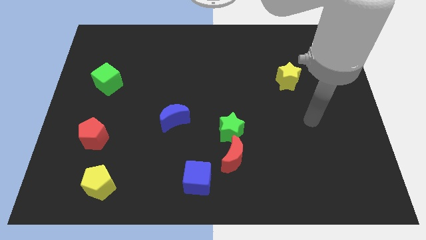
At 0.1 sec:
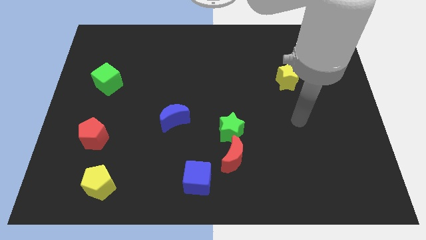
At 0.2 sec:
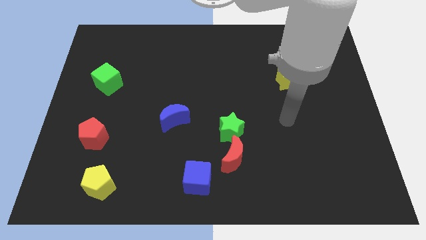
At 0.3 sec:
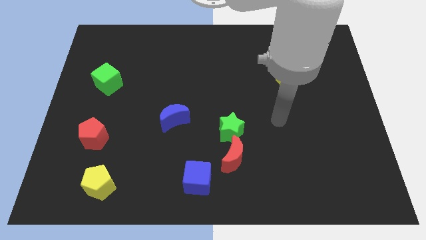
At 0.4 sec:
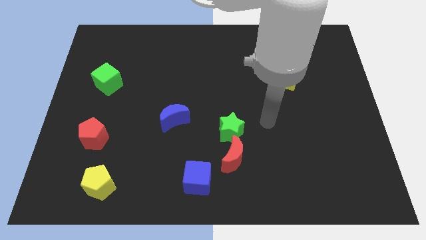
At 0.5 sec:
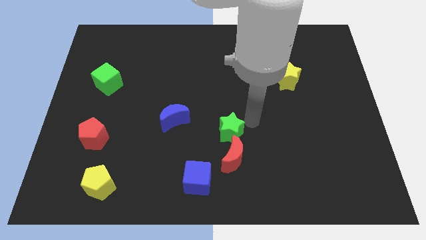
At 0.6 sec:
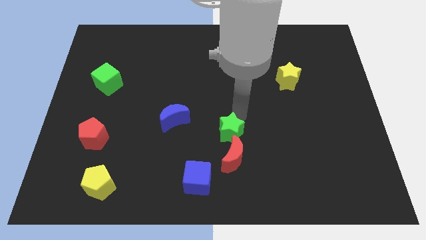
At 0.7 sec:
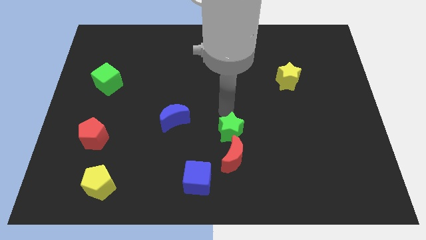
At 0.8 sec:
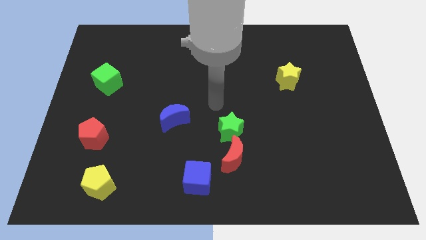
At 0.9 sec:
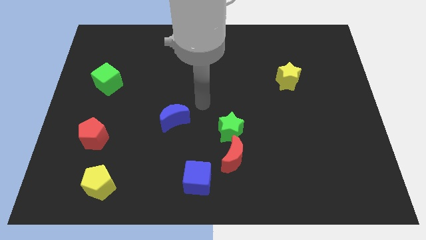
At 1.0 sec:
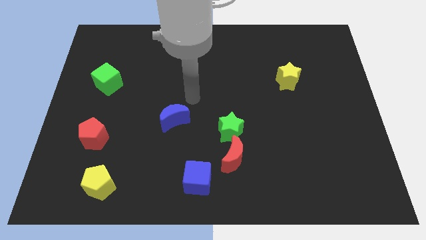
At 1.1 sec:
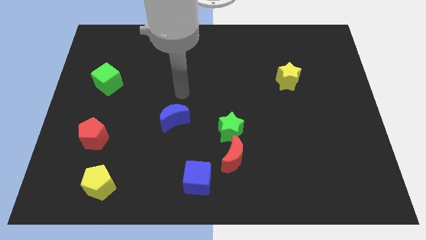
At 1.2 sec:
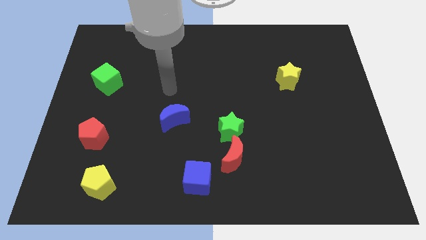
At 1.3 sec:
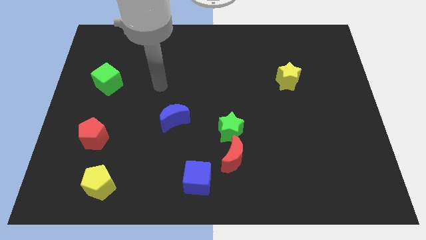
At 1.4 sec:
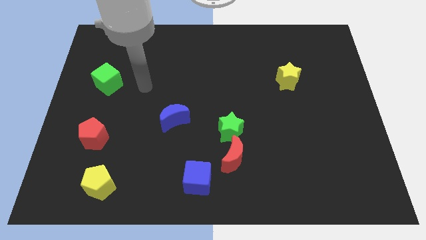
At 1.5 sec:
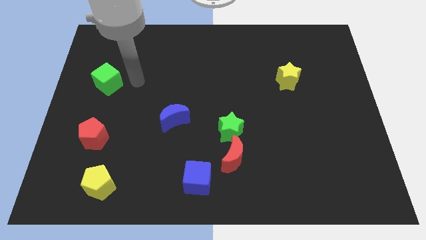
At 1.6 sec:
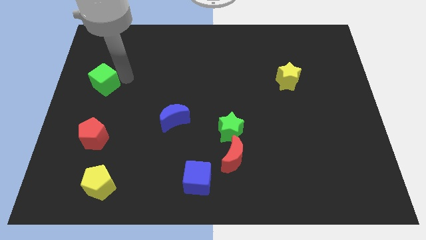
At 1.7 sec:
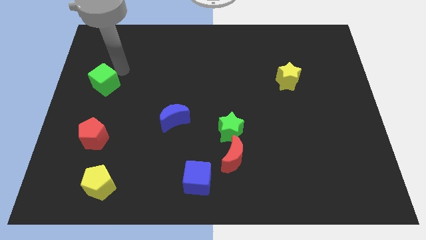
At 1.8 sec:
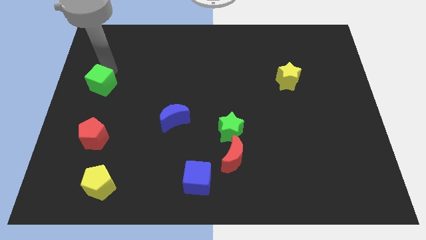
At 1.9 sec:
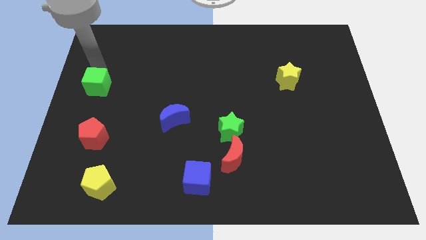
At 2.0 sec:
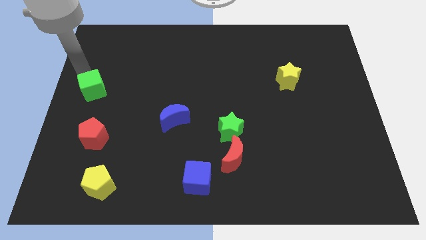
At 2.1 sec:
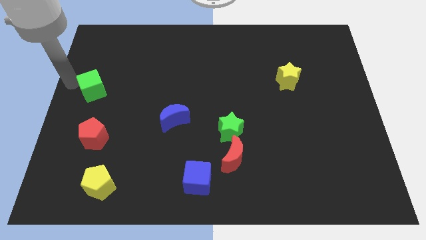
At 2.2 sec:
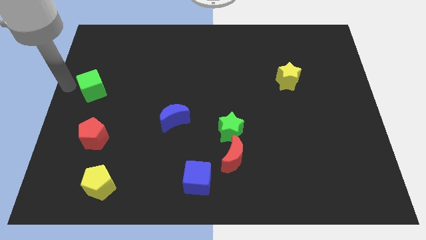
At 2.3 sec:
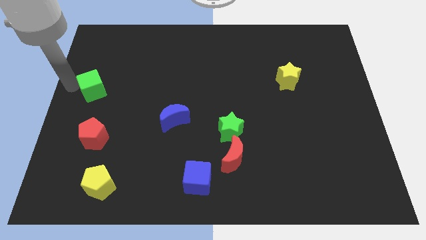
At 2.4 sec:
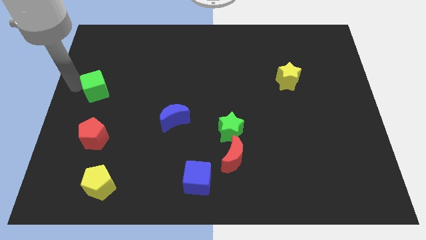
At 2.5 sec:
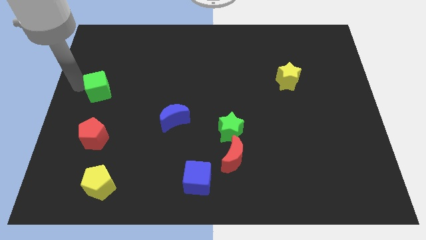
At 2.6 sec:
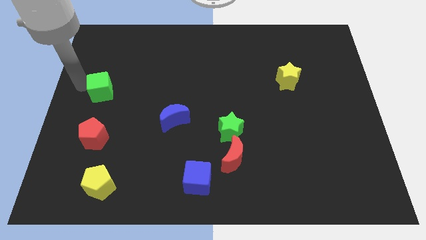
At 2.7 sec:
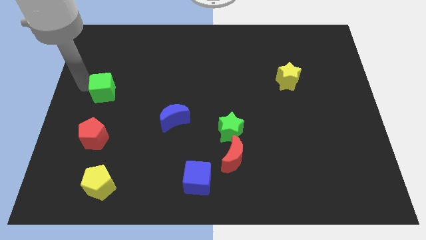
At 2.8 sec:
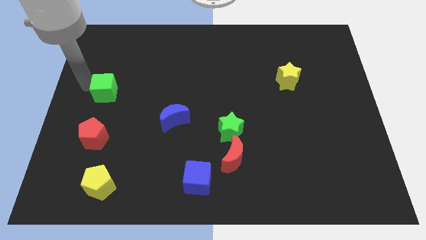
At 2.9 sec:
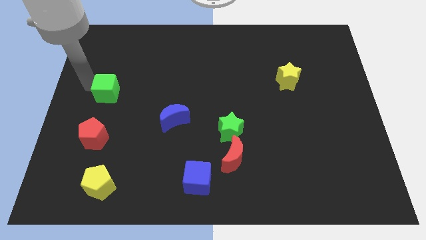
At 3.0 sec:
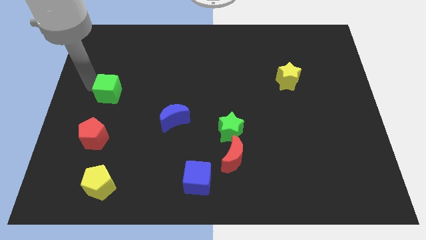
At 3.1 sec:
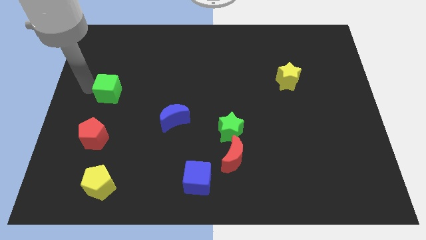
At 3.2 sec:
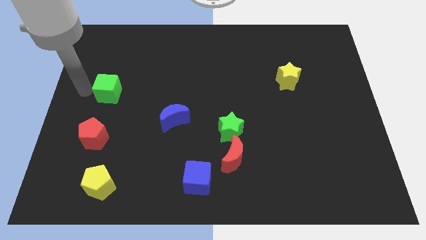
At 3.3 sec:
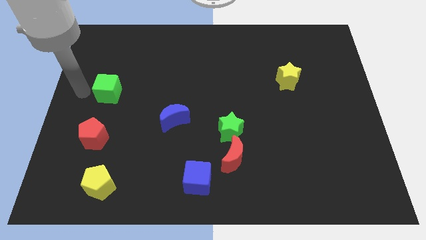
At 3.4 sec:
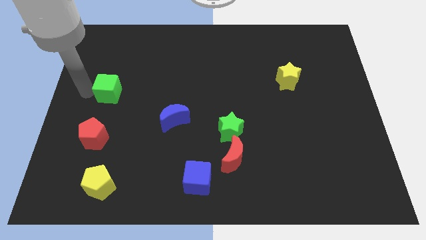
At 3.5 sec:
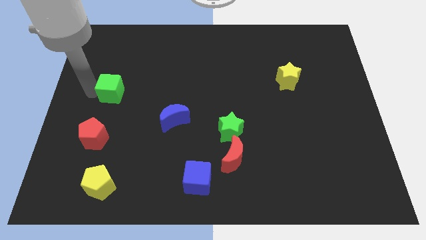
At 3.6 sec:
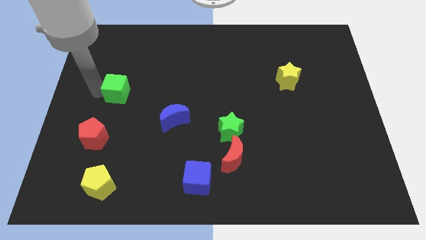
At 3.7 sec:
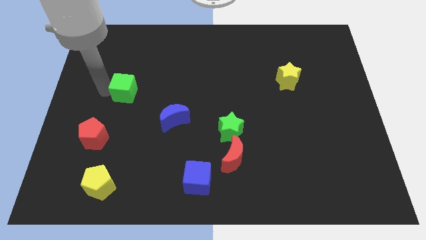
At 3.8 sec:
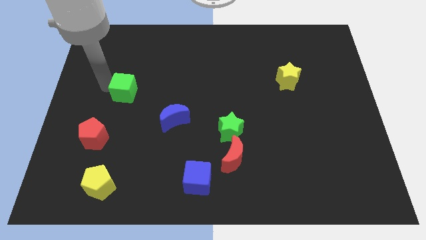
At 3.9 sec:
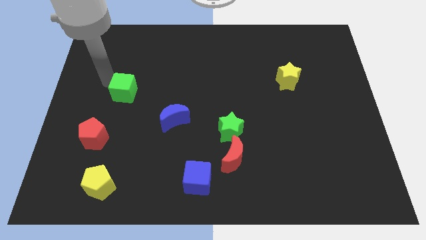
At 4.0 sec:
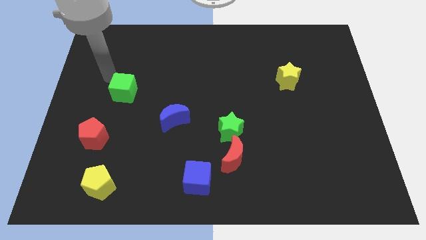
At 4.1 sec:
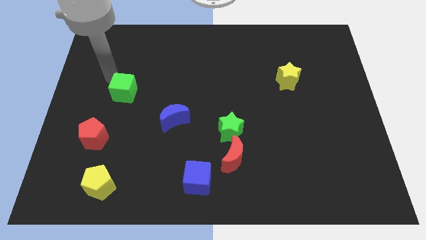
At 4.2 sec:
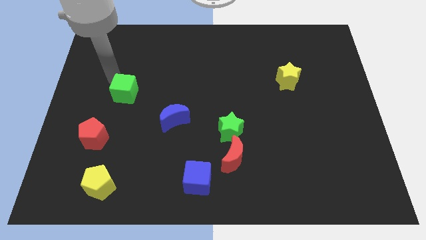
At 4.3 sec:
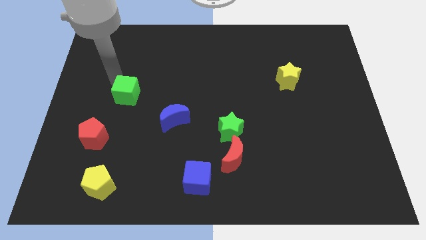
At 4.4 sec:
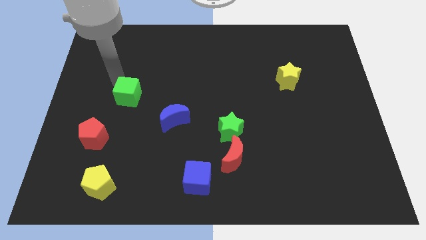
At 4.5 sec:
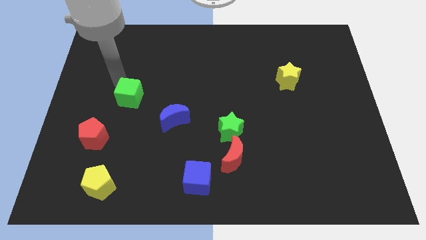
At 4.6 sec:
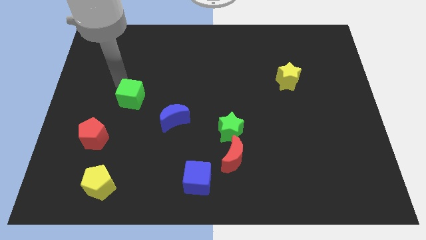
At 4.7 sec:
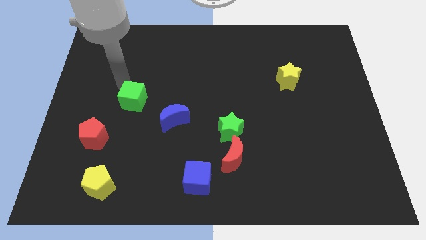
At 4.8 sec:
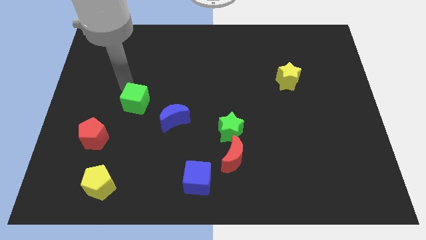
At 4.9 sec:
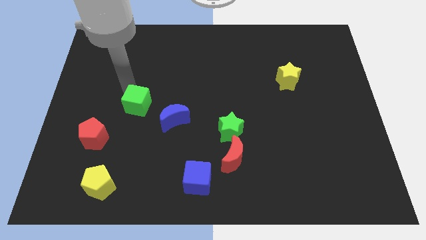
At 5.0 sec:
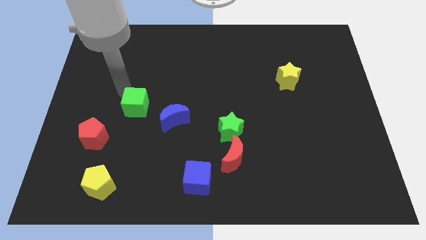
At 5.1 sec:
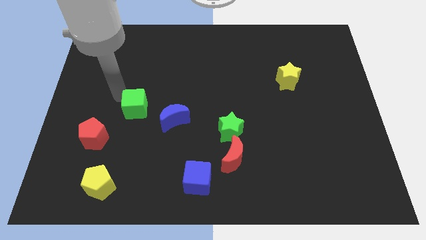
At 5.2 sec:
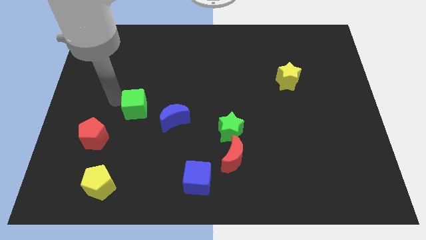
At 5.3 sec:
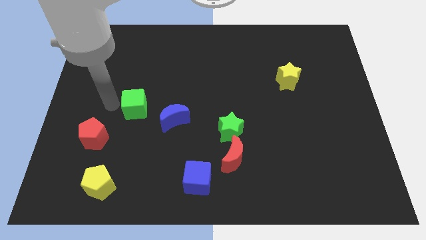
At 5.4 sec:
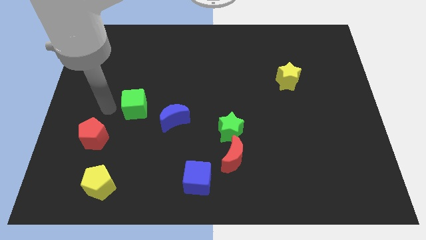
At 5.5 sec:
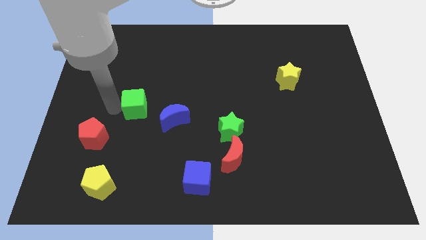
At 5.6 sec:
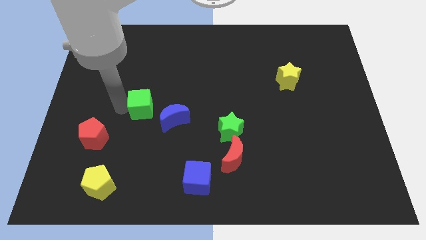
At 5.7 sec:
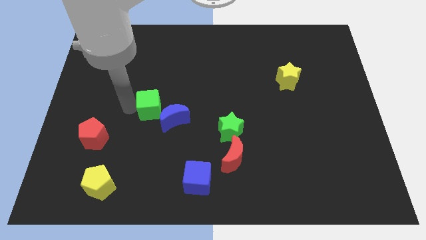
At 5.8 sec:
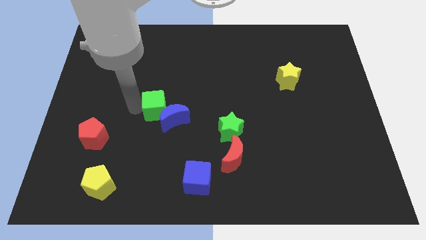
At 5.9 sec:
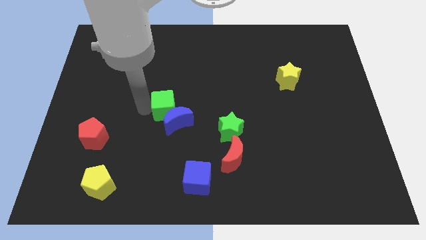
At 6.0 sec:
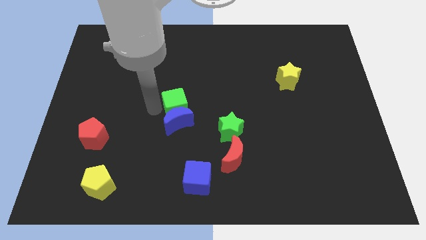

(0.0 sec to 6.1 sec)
move the green cube to the top right of the blue moon

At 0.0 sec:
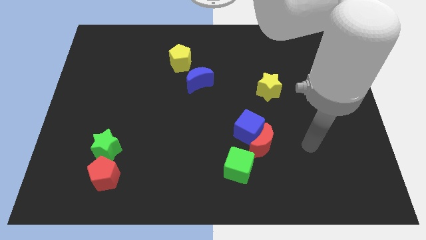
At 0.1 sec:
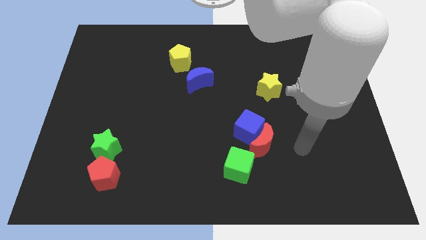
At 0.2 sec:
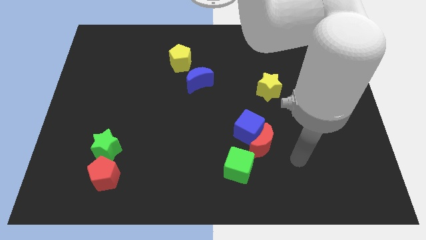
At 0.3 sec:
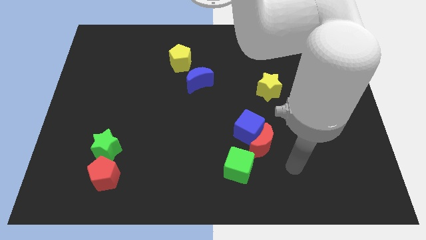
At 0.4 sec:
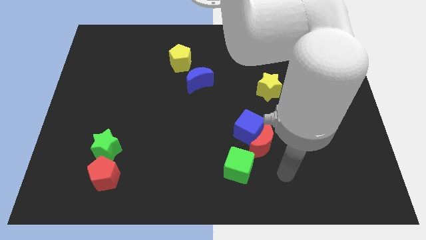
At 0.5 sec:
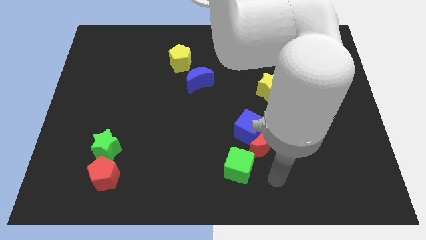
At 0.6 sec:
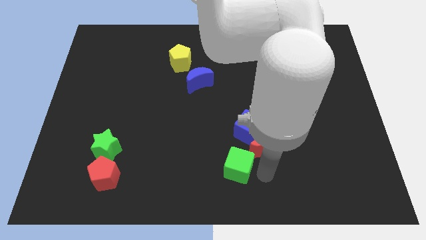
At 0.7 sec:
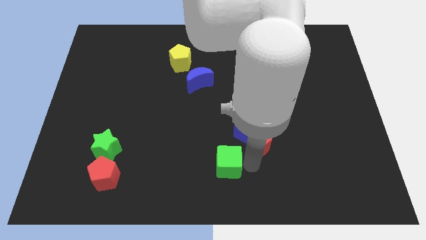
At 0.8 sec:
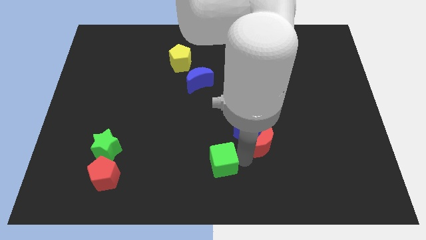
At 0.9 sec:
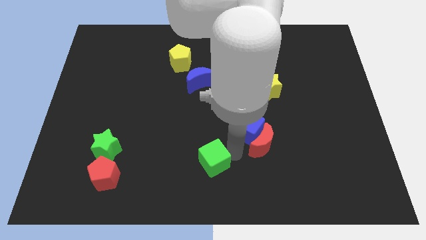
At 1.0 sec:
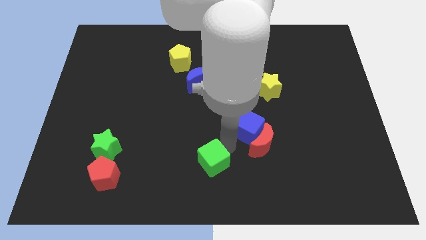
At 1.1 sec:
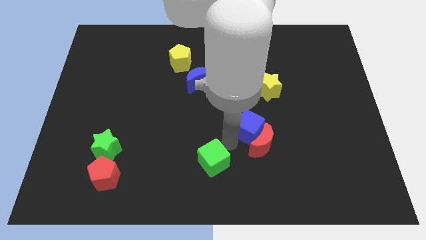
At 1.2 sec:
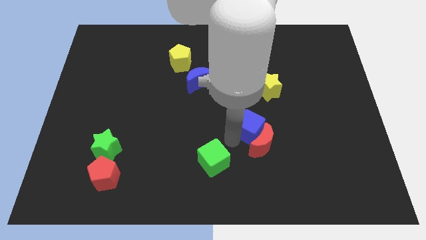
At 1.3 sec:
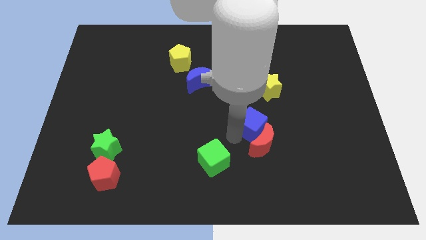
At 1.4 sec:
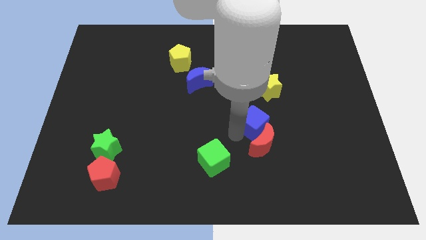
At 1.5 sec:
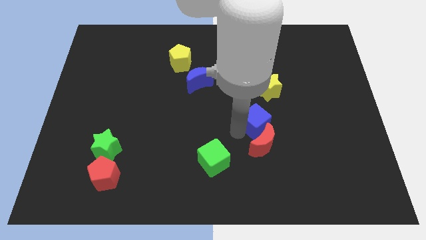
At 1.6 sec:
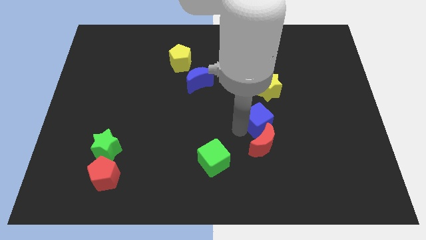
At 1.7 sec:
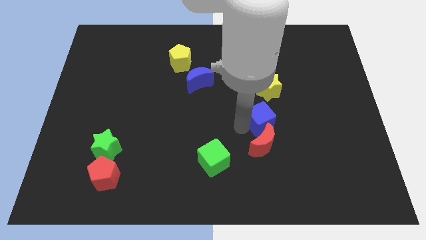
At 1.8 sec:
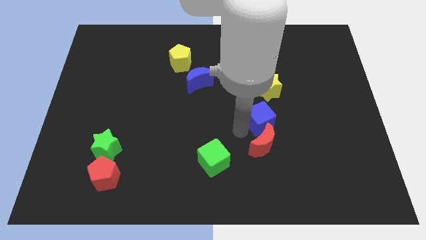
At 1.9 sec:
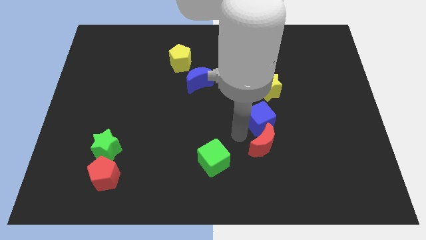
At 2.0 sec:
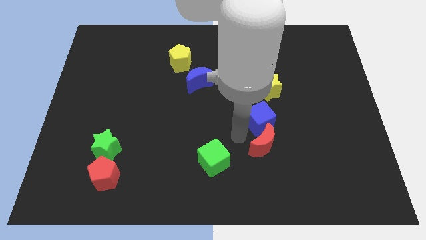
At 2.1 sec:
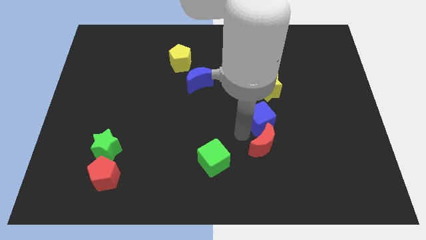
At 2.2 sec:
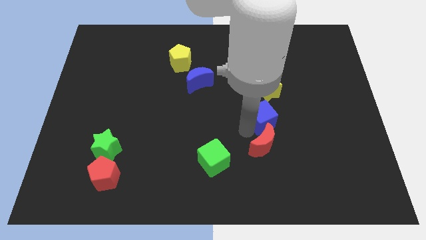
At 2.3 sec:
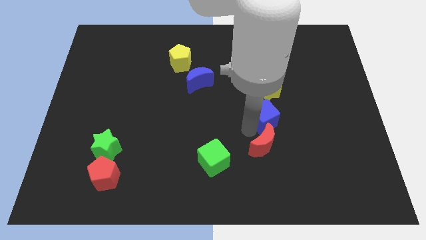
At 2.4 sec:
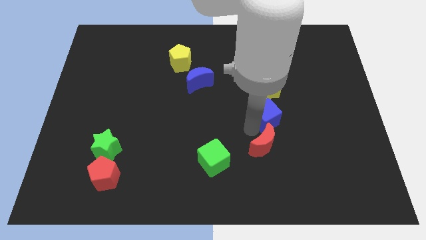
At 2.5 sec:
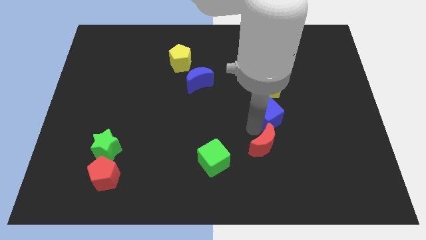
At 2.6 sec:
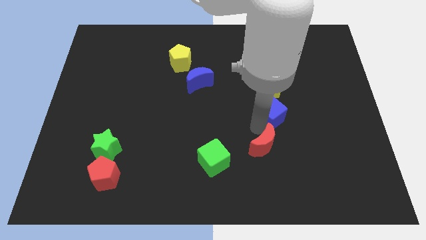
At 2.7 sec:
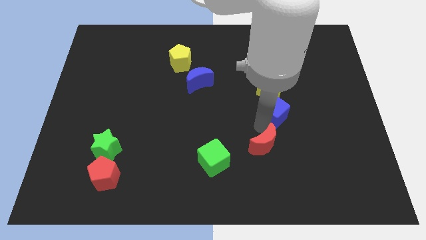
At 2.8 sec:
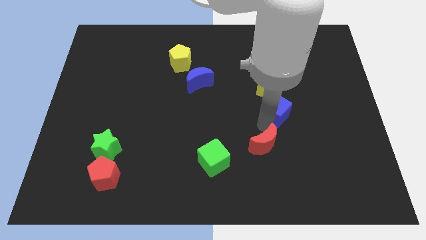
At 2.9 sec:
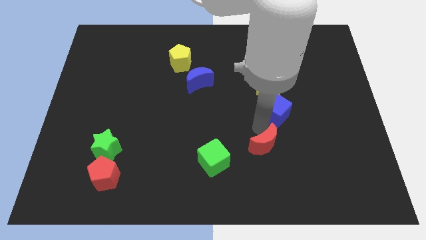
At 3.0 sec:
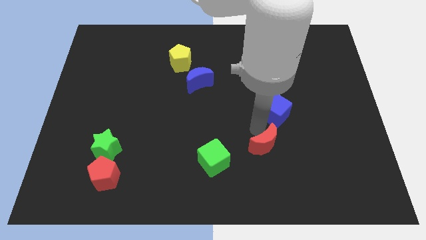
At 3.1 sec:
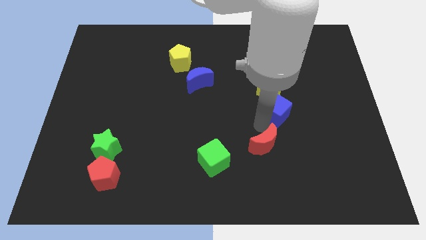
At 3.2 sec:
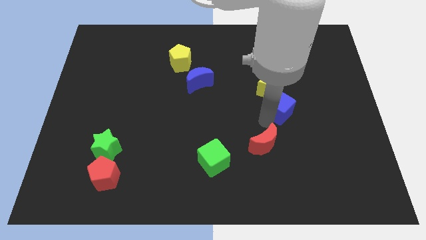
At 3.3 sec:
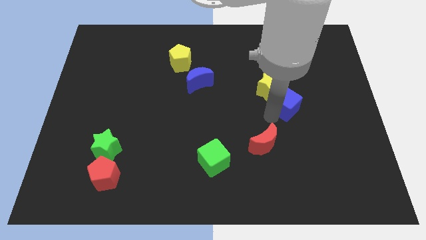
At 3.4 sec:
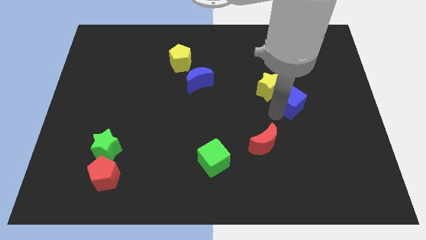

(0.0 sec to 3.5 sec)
push the blue cube right of the yellow star
